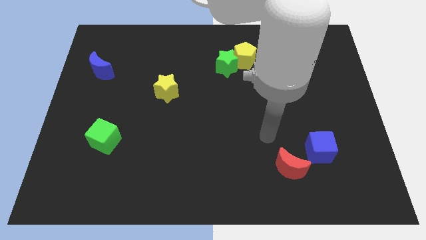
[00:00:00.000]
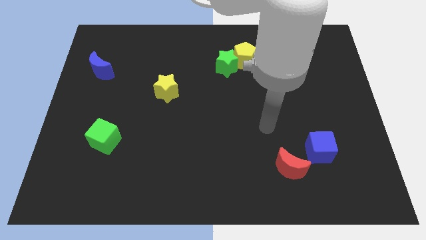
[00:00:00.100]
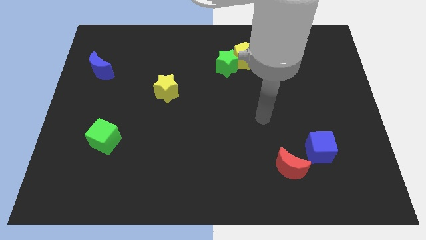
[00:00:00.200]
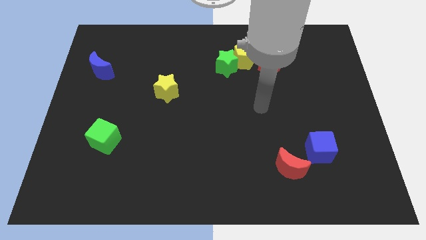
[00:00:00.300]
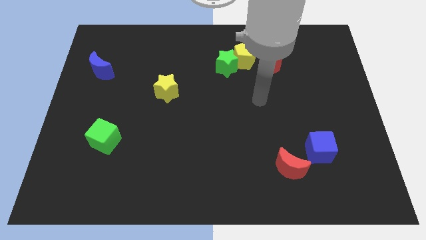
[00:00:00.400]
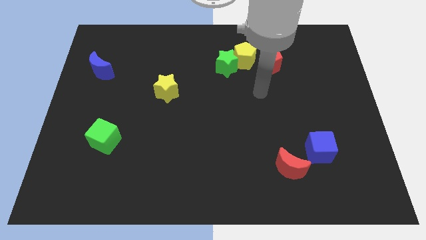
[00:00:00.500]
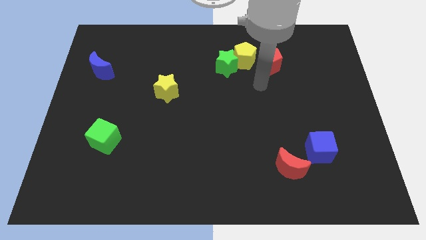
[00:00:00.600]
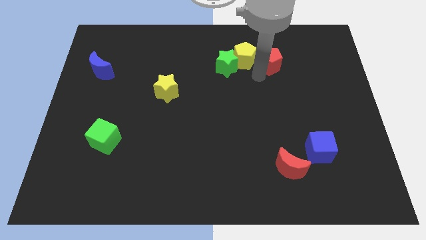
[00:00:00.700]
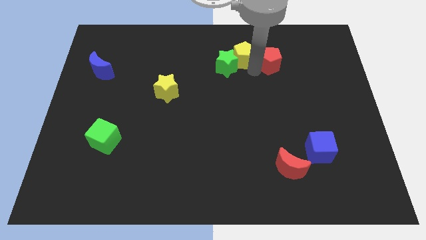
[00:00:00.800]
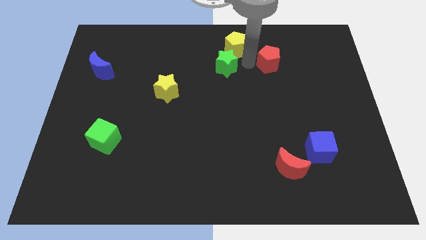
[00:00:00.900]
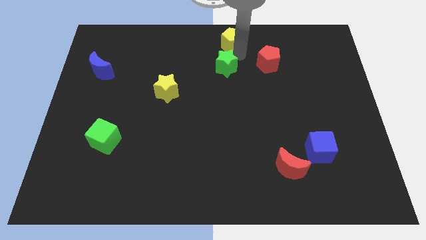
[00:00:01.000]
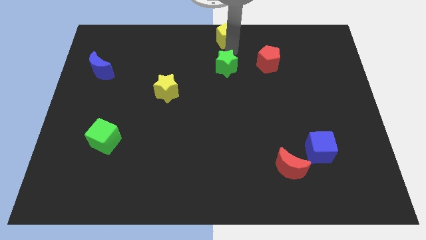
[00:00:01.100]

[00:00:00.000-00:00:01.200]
pull the green star apart from the yellow pentagon

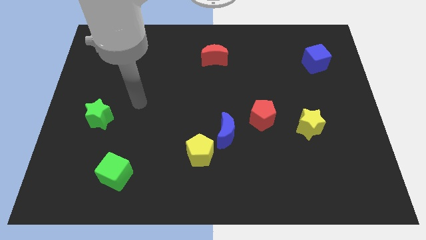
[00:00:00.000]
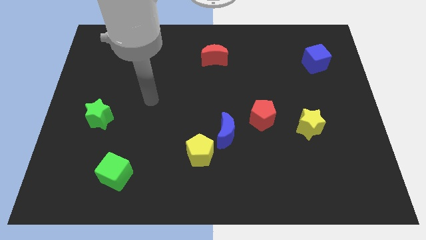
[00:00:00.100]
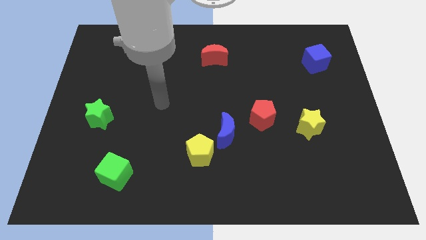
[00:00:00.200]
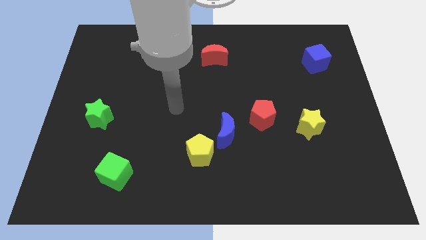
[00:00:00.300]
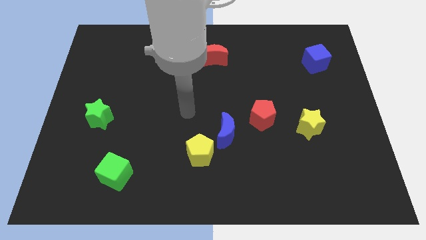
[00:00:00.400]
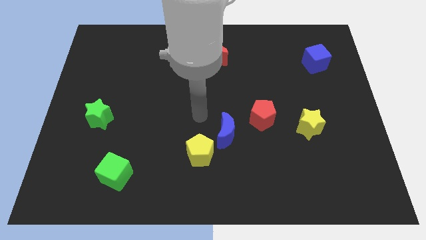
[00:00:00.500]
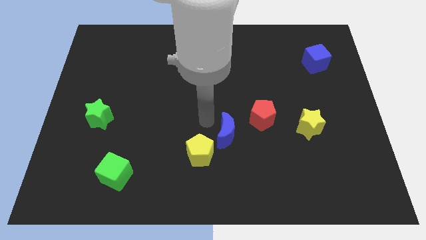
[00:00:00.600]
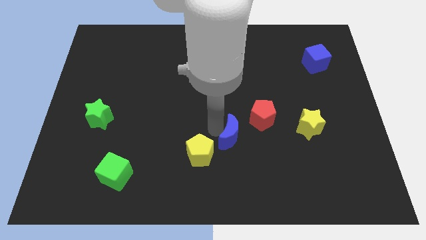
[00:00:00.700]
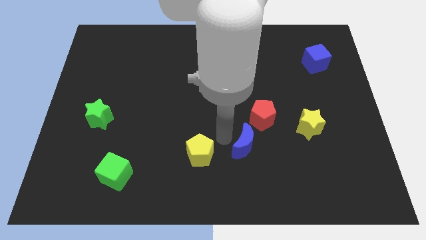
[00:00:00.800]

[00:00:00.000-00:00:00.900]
pull the yellow pentagon apart from the blue moon

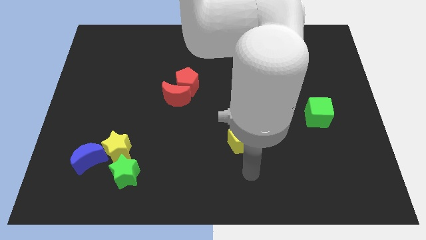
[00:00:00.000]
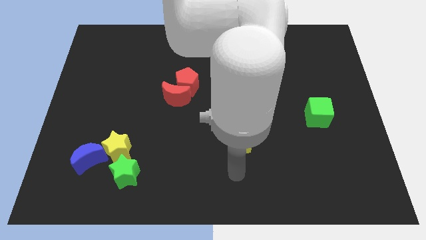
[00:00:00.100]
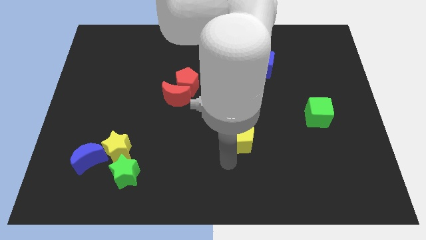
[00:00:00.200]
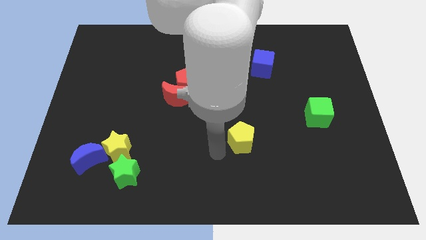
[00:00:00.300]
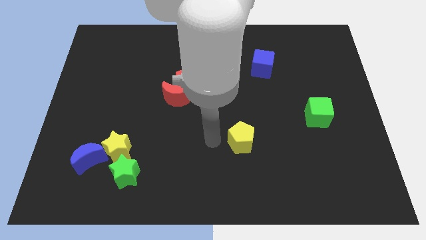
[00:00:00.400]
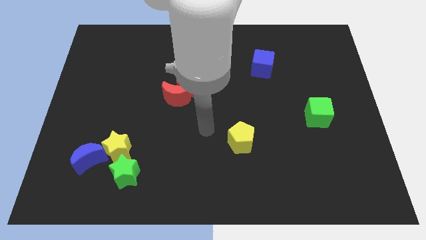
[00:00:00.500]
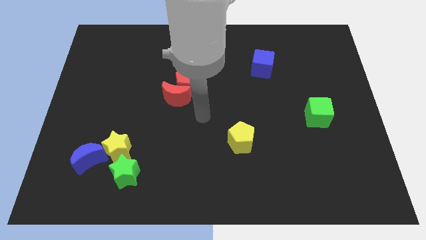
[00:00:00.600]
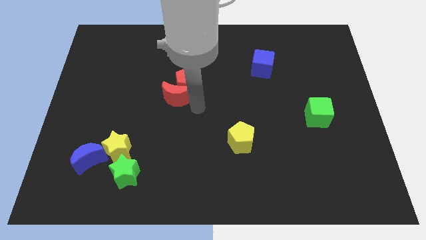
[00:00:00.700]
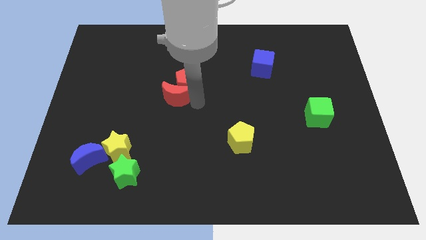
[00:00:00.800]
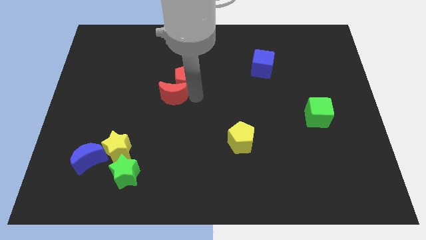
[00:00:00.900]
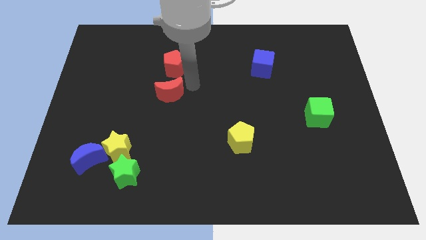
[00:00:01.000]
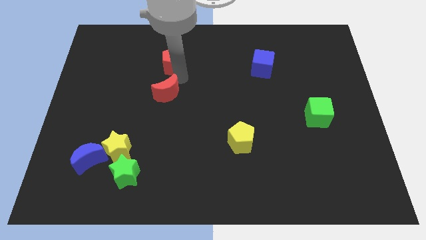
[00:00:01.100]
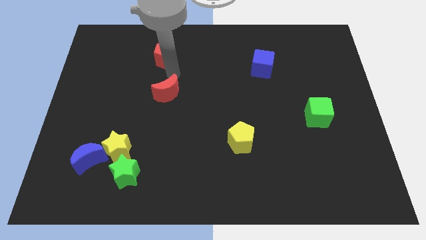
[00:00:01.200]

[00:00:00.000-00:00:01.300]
separate the red moon from the red pentagon

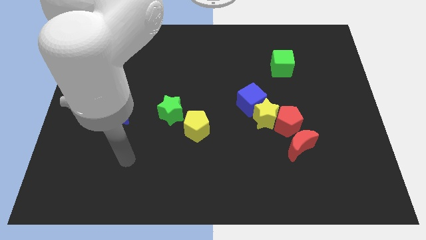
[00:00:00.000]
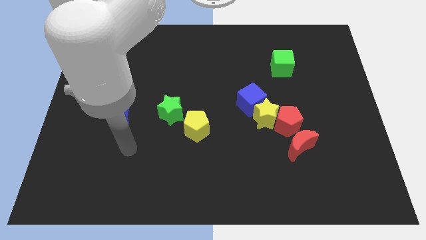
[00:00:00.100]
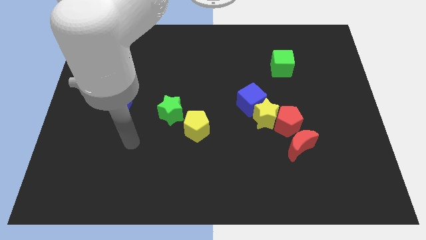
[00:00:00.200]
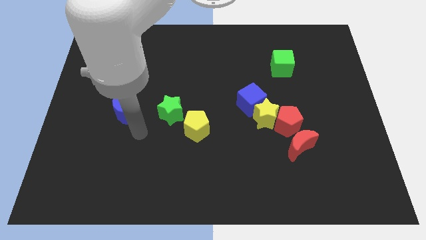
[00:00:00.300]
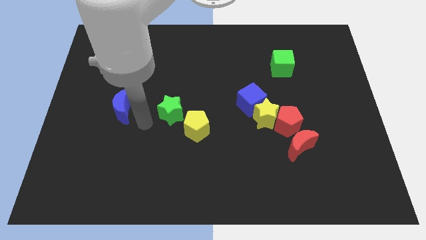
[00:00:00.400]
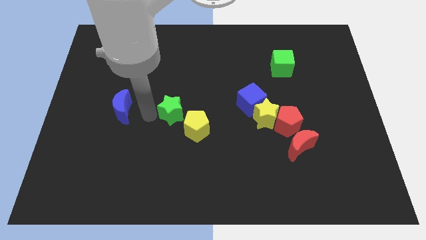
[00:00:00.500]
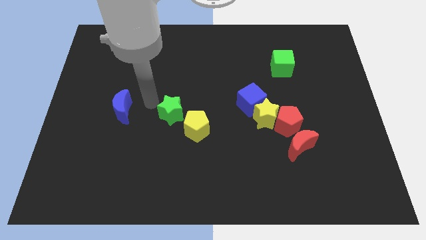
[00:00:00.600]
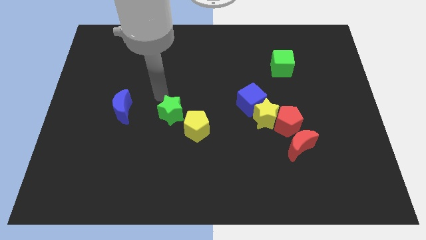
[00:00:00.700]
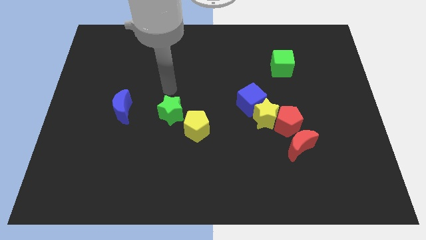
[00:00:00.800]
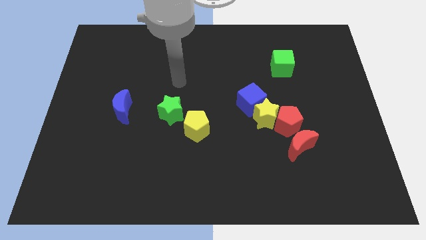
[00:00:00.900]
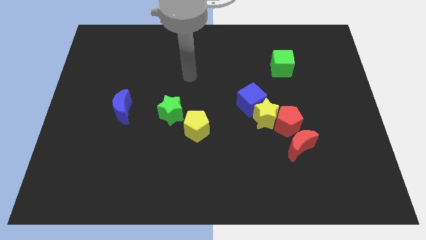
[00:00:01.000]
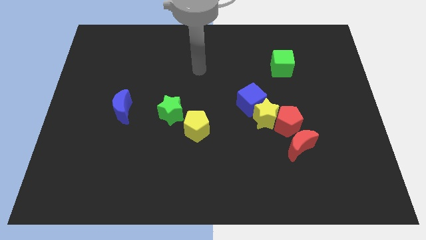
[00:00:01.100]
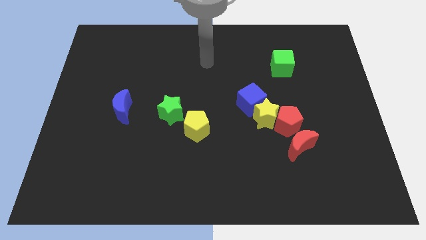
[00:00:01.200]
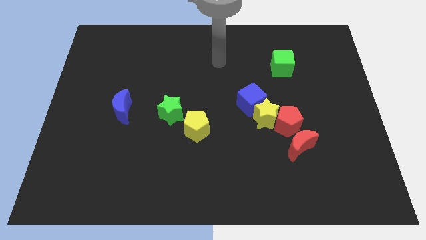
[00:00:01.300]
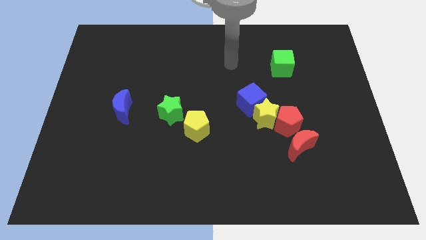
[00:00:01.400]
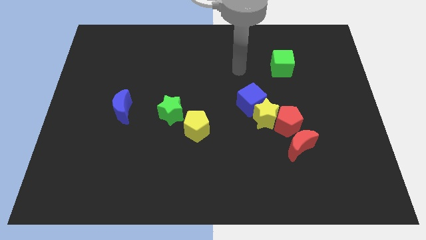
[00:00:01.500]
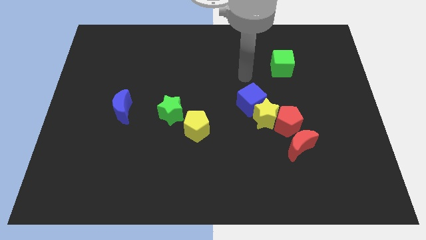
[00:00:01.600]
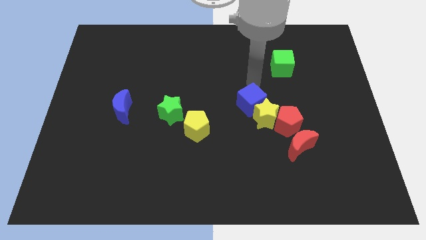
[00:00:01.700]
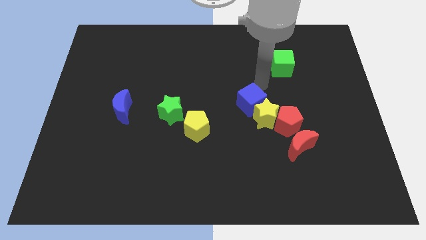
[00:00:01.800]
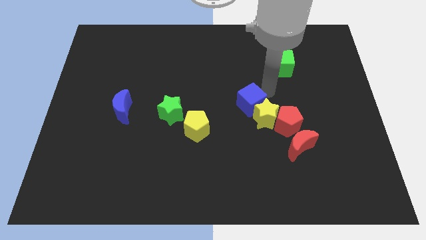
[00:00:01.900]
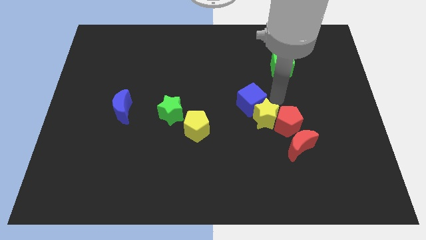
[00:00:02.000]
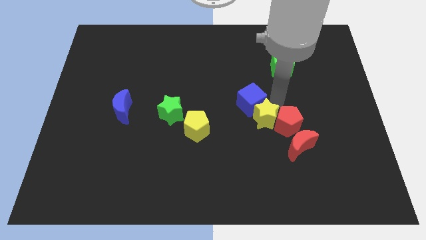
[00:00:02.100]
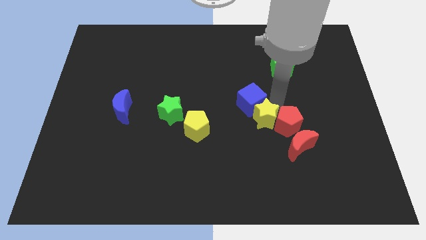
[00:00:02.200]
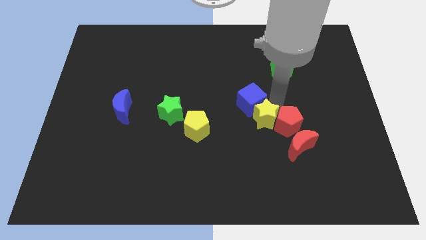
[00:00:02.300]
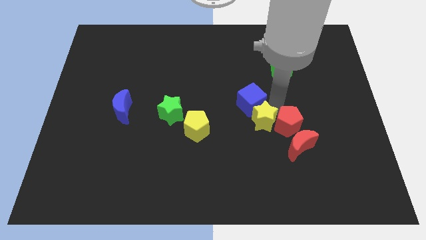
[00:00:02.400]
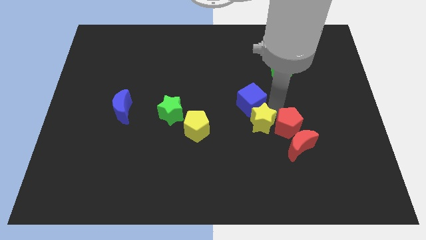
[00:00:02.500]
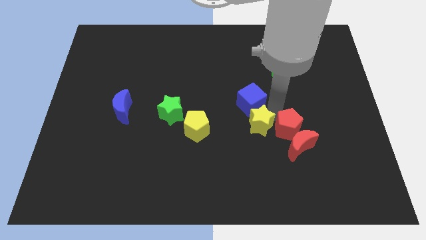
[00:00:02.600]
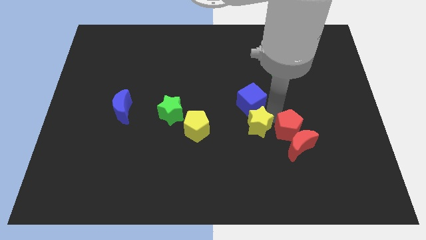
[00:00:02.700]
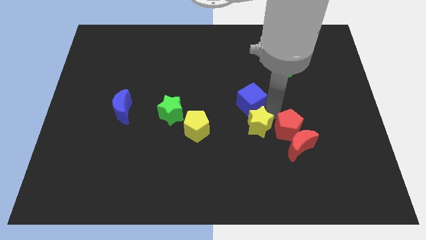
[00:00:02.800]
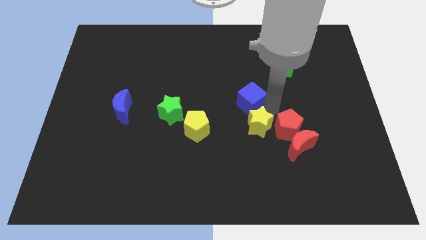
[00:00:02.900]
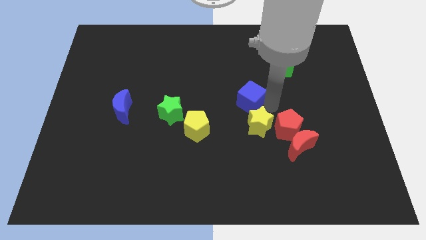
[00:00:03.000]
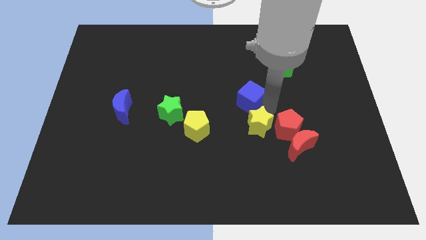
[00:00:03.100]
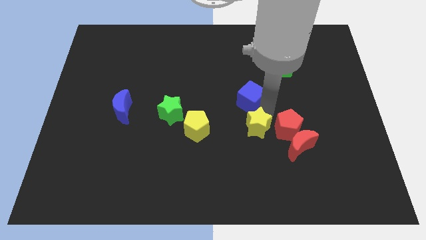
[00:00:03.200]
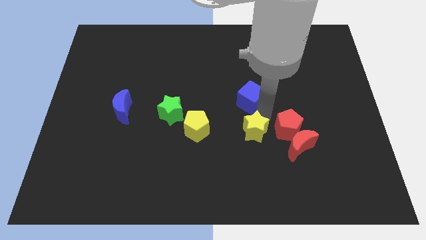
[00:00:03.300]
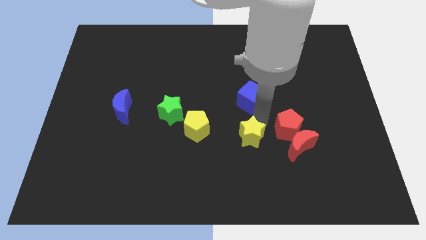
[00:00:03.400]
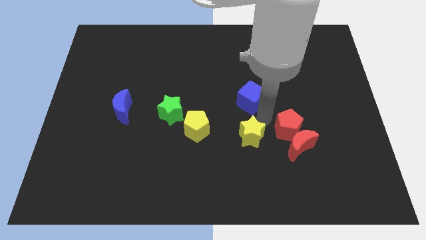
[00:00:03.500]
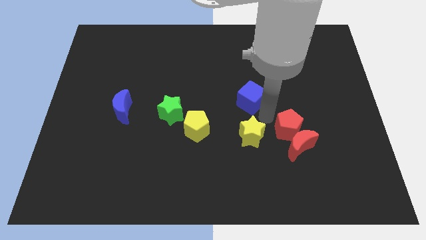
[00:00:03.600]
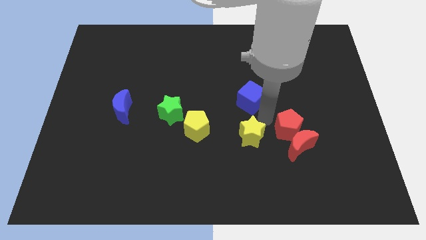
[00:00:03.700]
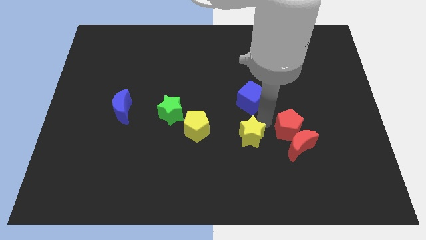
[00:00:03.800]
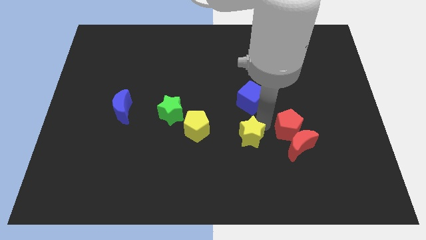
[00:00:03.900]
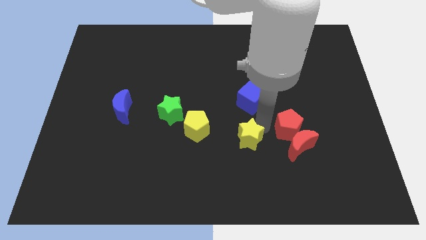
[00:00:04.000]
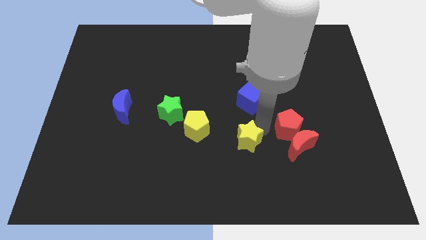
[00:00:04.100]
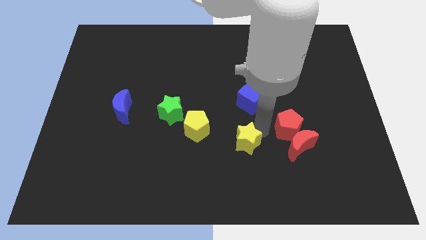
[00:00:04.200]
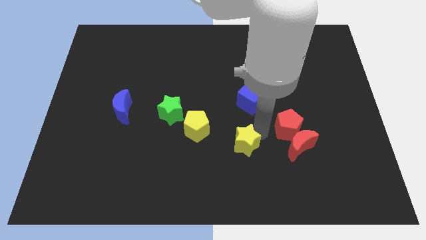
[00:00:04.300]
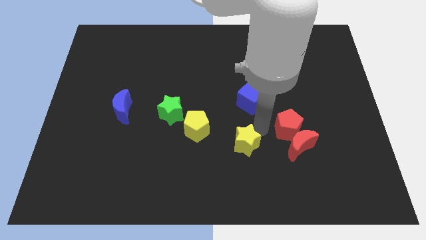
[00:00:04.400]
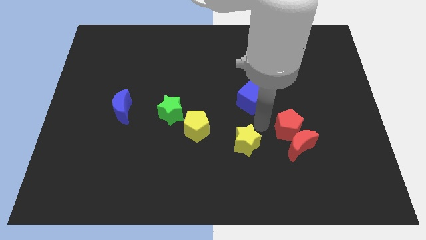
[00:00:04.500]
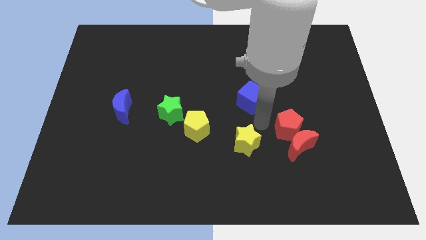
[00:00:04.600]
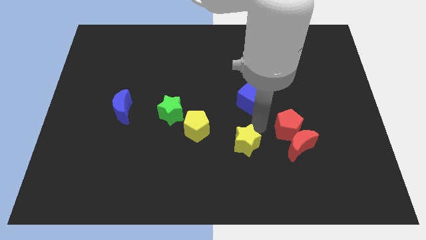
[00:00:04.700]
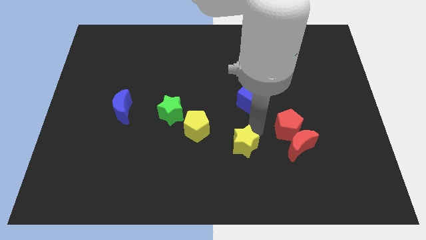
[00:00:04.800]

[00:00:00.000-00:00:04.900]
move the yellow star away from the blue cube and red pentagon

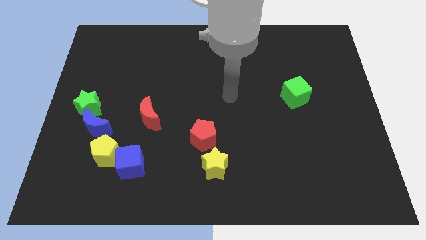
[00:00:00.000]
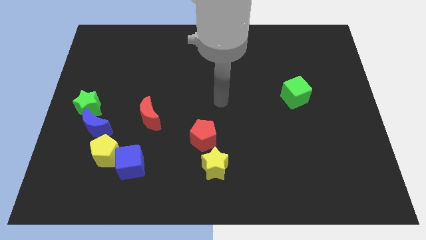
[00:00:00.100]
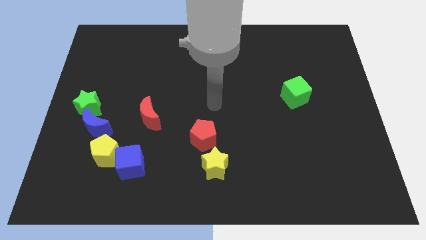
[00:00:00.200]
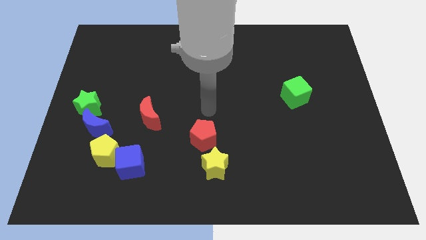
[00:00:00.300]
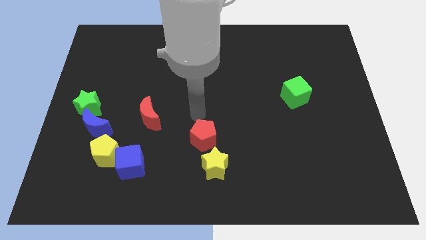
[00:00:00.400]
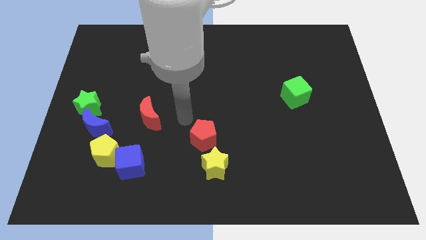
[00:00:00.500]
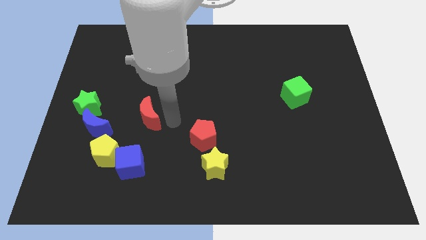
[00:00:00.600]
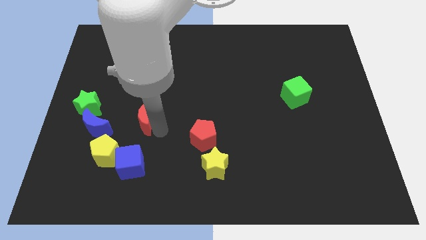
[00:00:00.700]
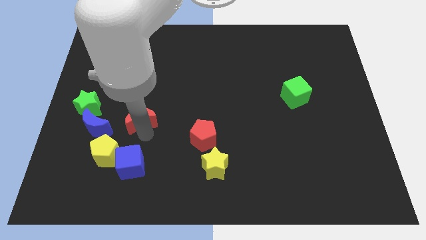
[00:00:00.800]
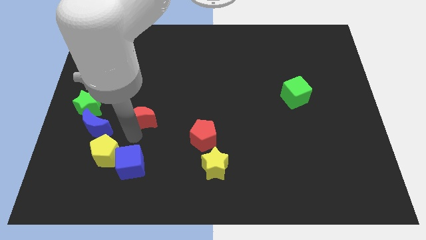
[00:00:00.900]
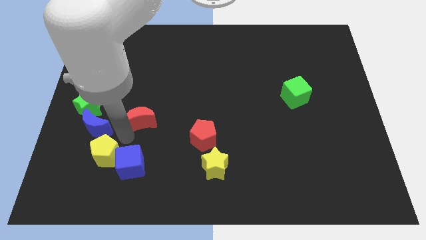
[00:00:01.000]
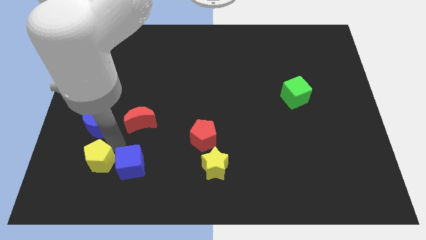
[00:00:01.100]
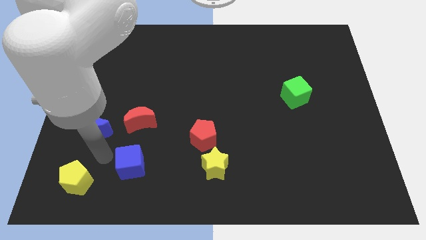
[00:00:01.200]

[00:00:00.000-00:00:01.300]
separate the blue cube from the yellow pentagon
